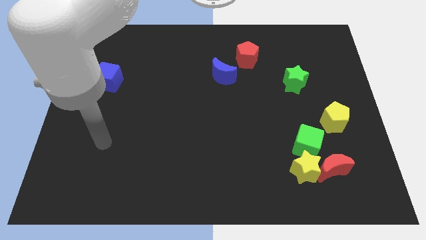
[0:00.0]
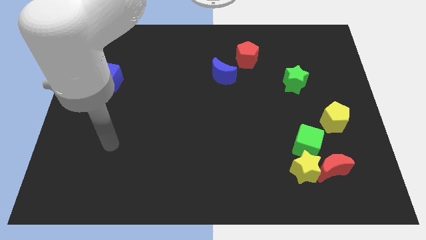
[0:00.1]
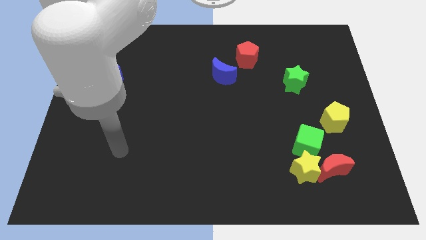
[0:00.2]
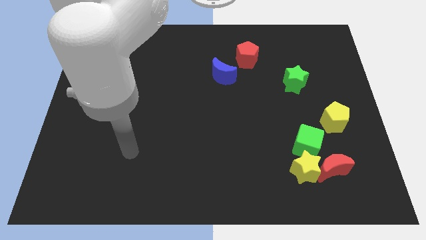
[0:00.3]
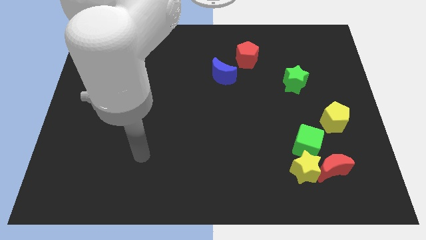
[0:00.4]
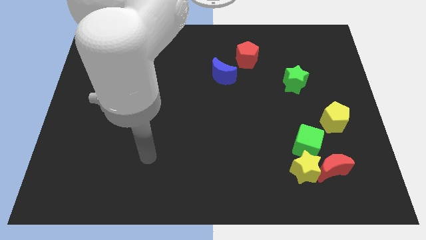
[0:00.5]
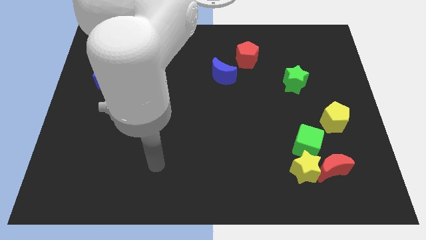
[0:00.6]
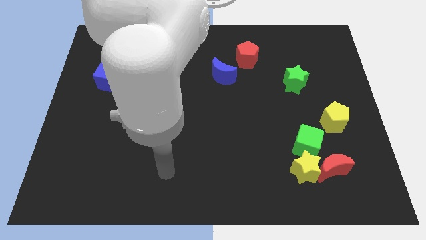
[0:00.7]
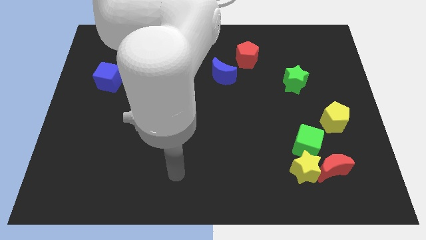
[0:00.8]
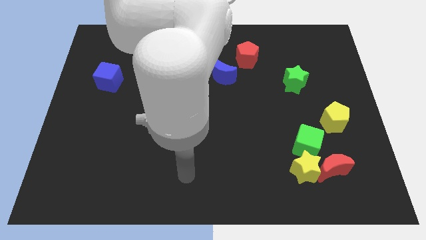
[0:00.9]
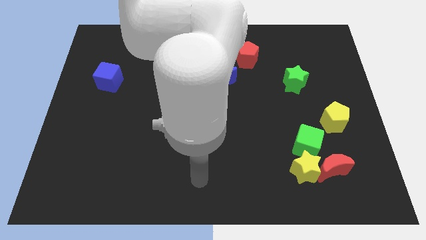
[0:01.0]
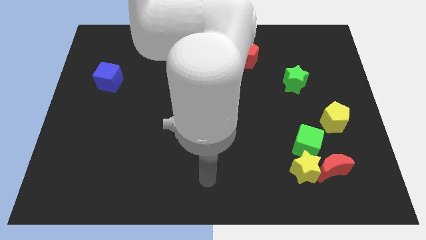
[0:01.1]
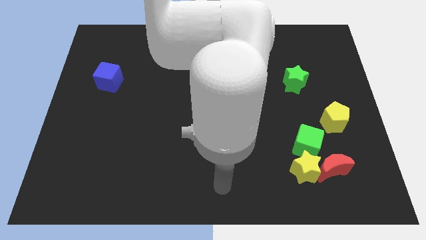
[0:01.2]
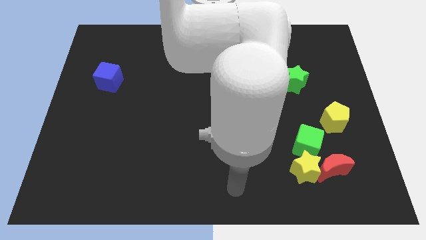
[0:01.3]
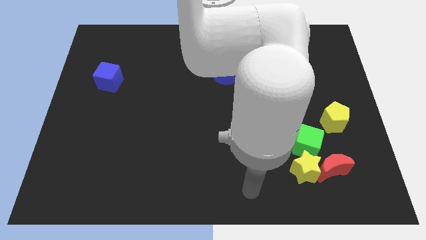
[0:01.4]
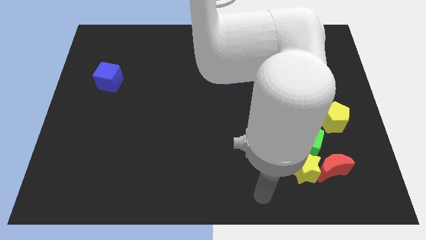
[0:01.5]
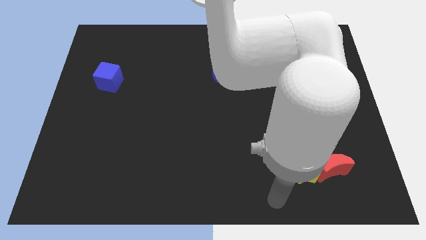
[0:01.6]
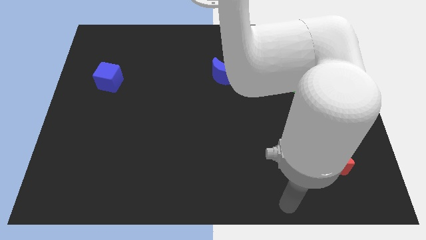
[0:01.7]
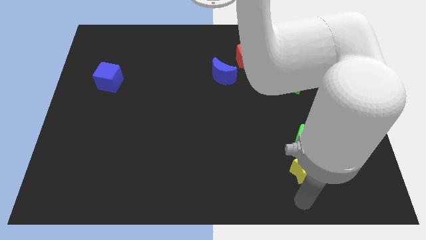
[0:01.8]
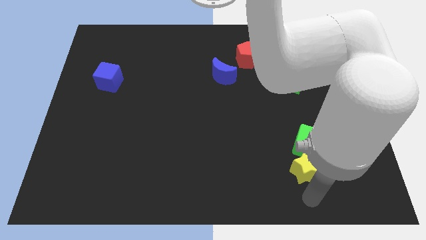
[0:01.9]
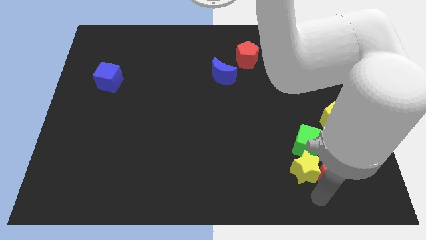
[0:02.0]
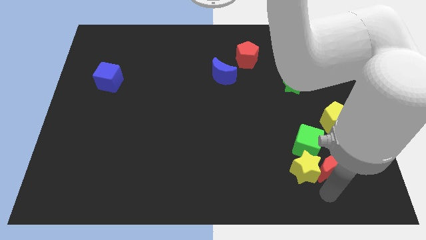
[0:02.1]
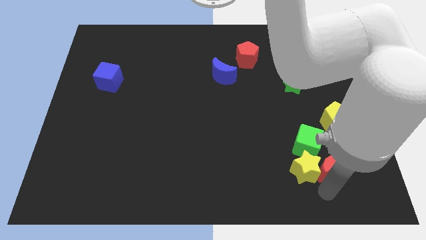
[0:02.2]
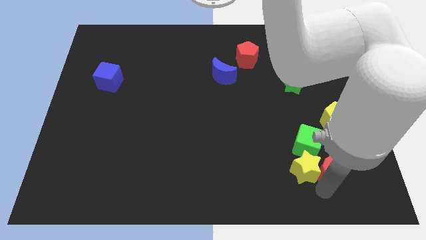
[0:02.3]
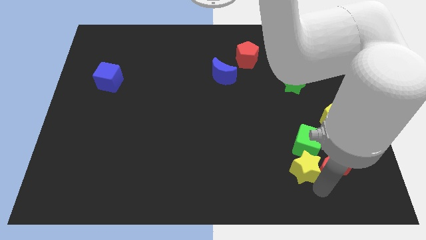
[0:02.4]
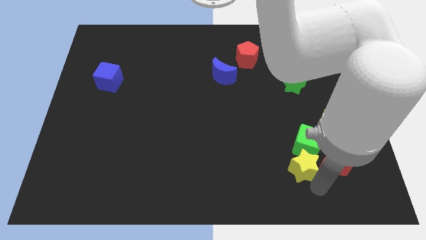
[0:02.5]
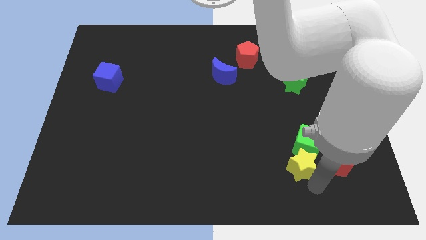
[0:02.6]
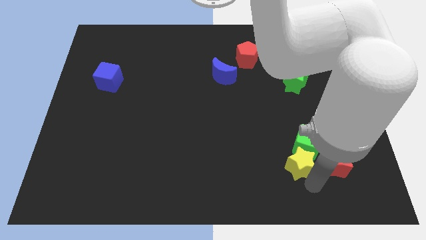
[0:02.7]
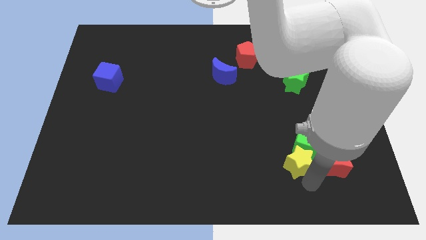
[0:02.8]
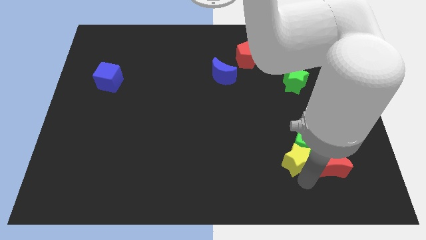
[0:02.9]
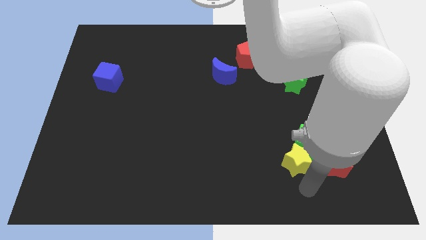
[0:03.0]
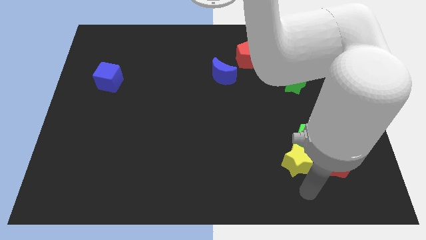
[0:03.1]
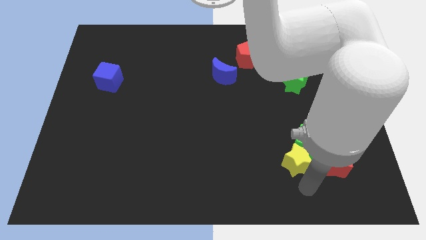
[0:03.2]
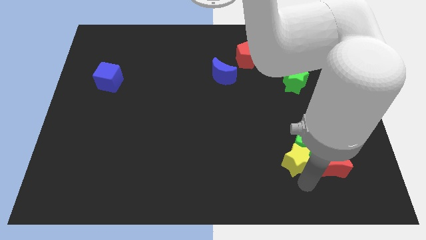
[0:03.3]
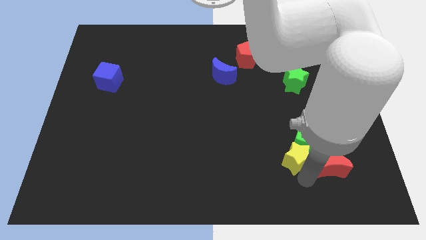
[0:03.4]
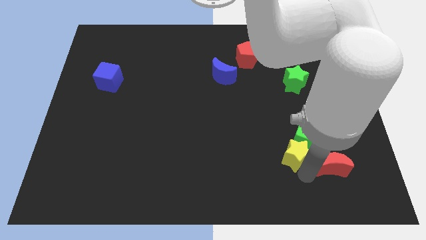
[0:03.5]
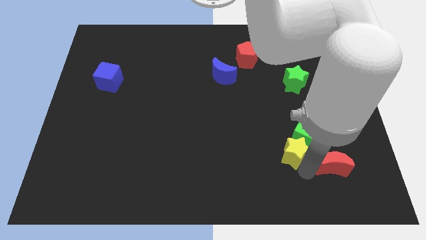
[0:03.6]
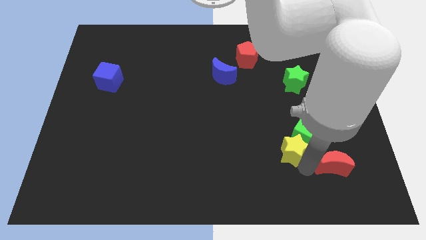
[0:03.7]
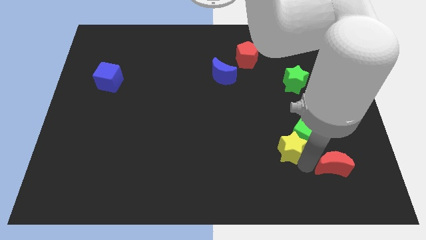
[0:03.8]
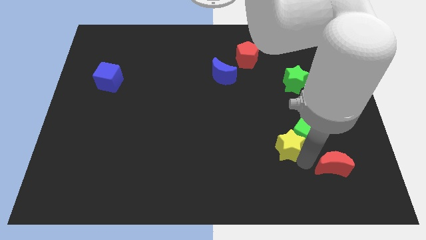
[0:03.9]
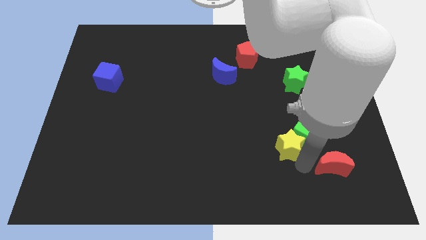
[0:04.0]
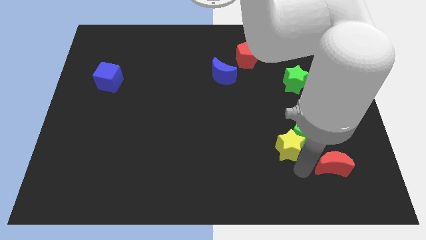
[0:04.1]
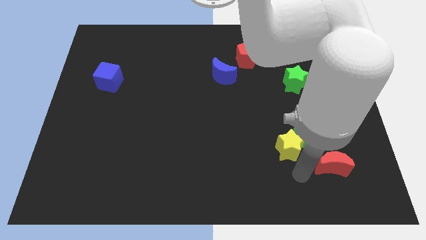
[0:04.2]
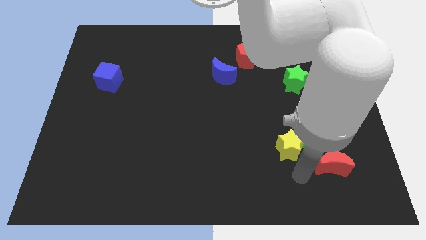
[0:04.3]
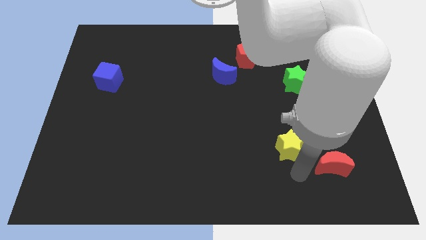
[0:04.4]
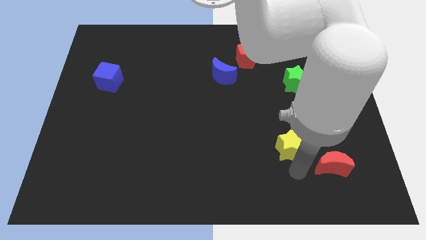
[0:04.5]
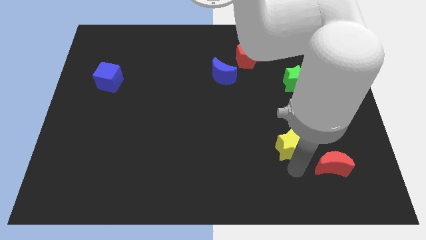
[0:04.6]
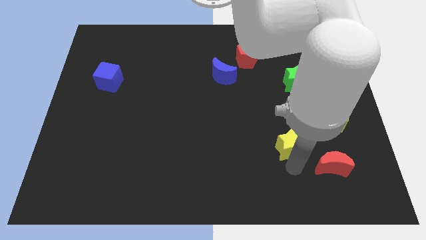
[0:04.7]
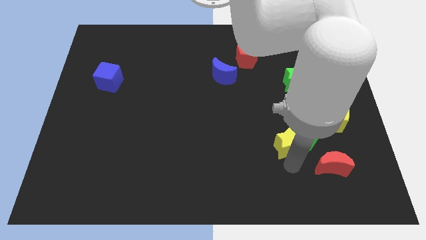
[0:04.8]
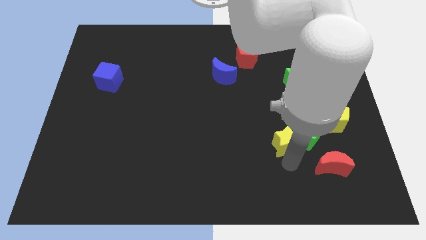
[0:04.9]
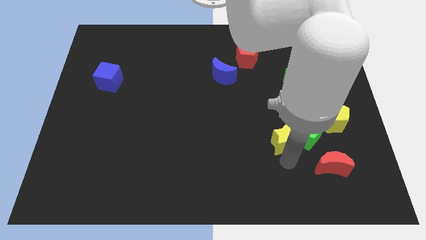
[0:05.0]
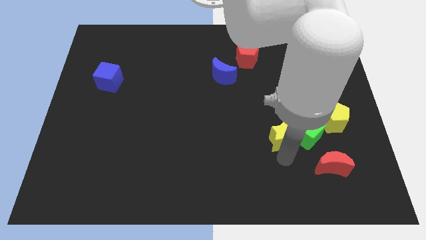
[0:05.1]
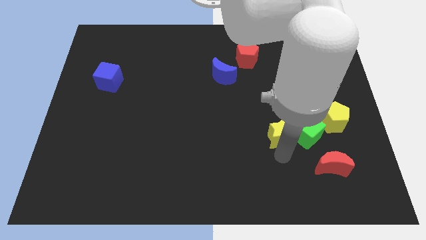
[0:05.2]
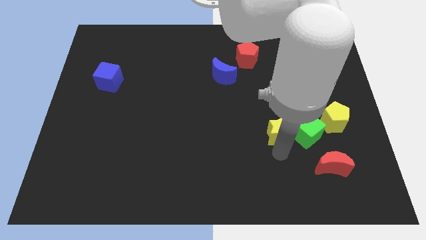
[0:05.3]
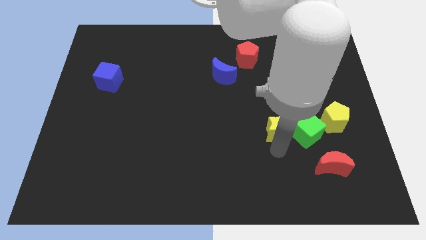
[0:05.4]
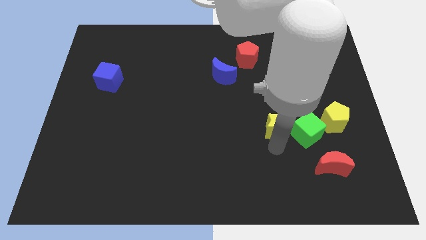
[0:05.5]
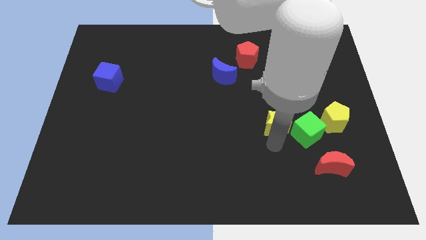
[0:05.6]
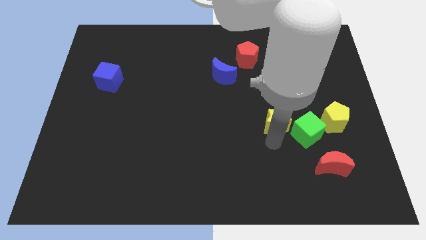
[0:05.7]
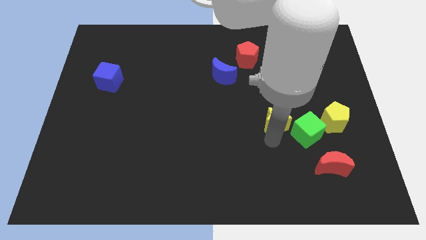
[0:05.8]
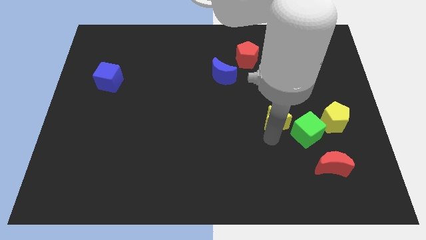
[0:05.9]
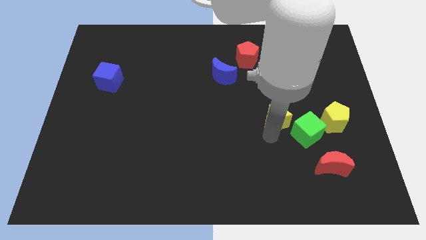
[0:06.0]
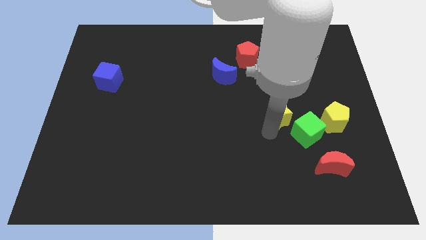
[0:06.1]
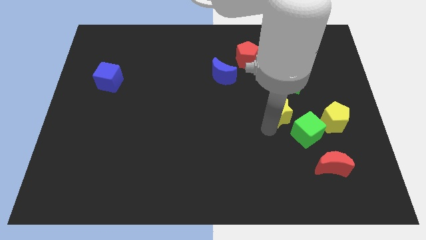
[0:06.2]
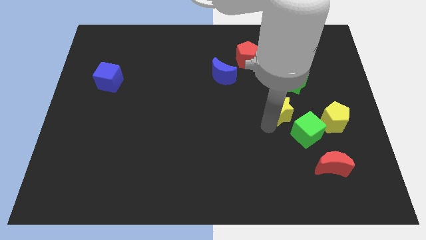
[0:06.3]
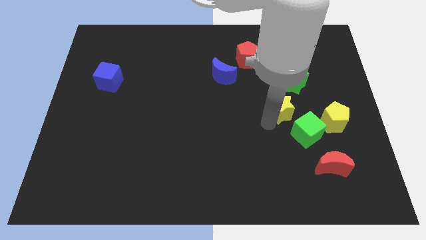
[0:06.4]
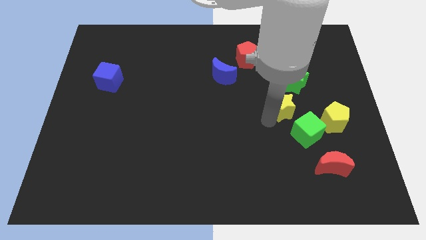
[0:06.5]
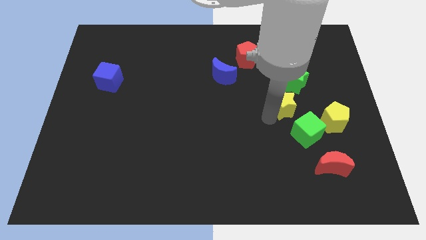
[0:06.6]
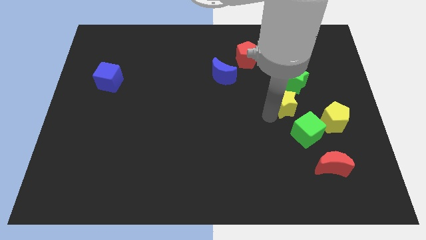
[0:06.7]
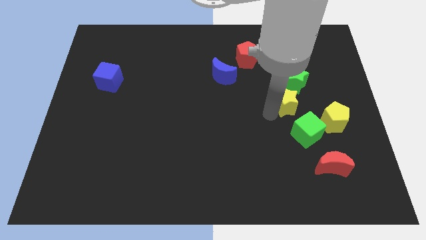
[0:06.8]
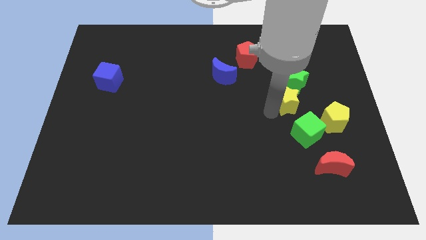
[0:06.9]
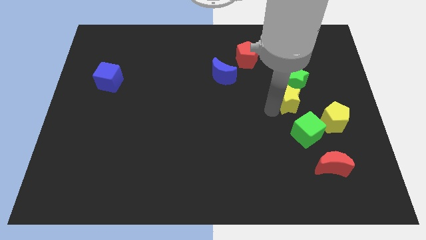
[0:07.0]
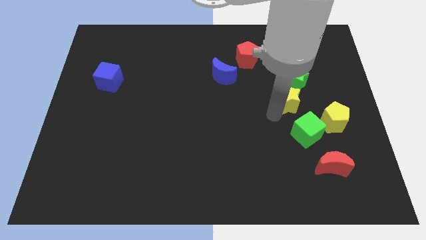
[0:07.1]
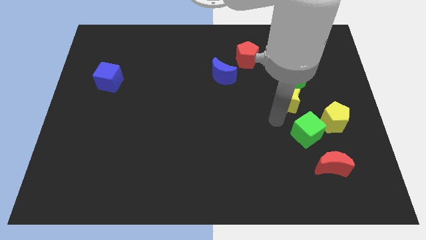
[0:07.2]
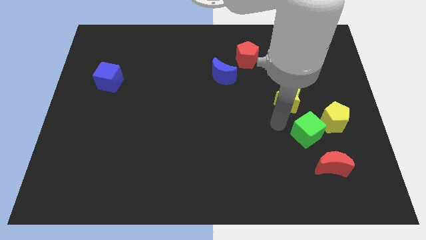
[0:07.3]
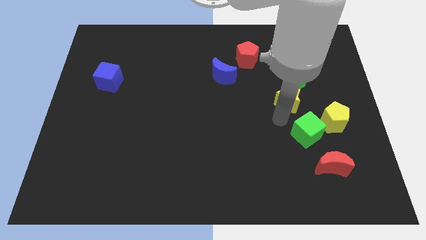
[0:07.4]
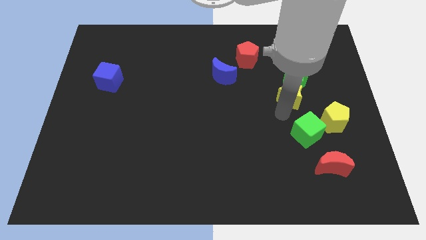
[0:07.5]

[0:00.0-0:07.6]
move the yellow star towards the green star
